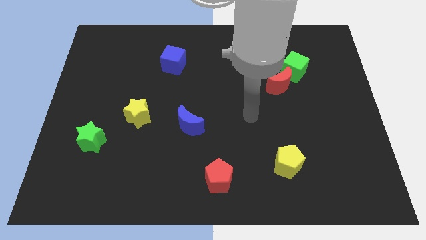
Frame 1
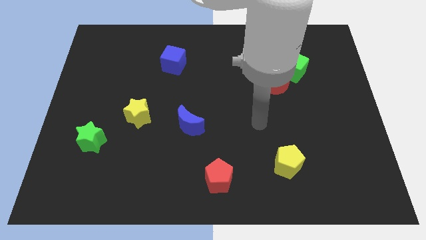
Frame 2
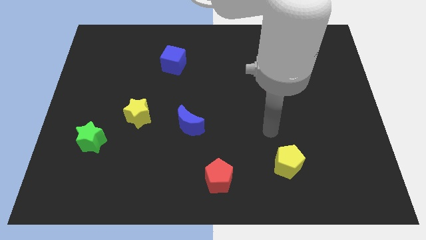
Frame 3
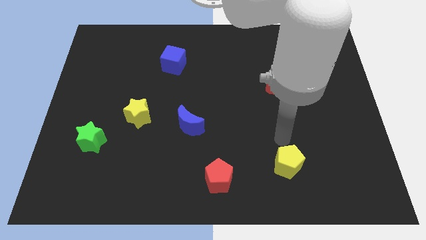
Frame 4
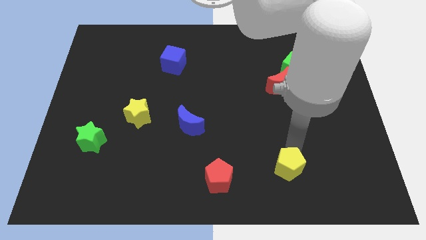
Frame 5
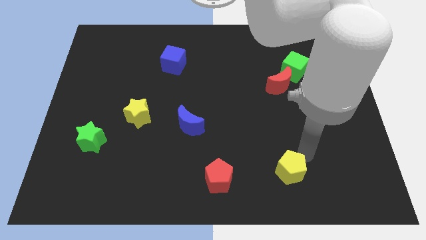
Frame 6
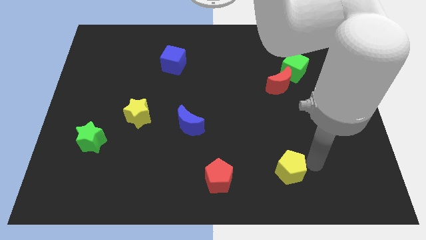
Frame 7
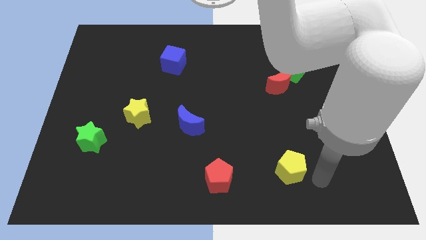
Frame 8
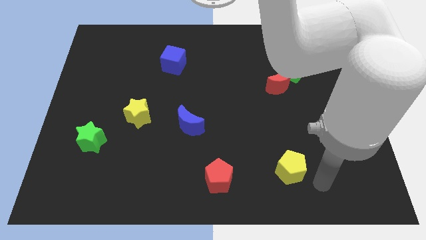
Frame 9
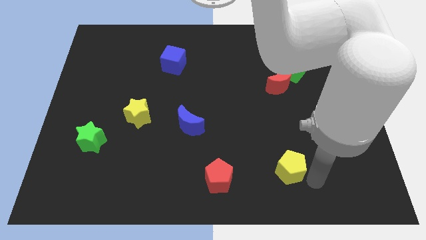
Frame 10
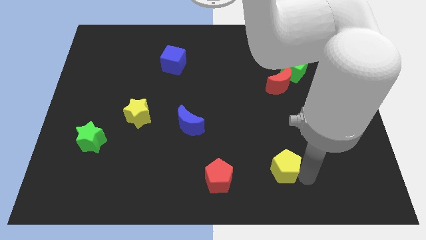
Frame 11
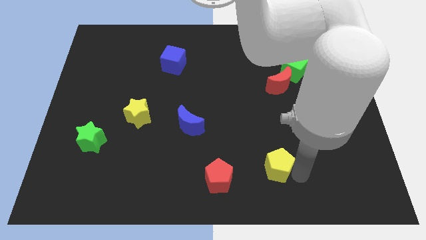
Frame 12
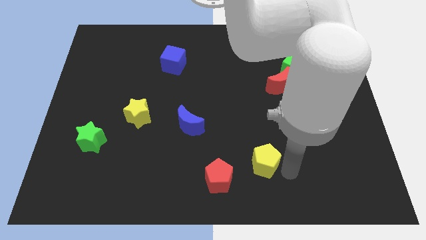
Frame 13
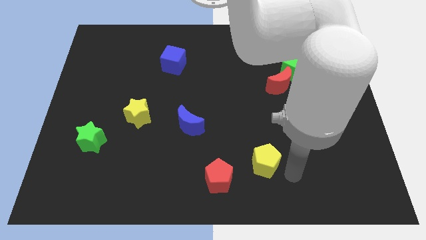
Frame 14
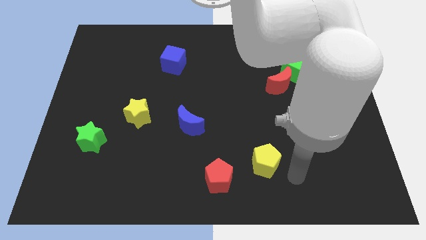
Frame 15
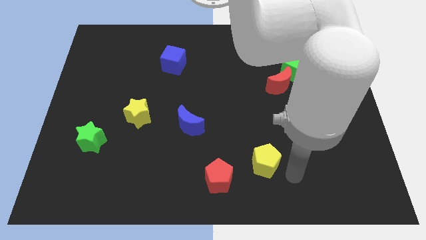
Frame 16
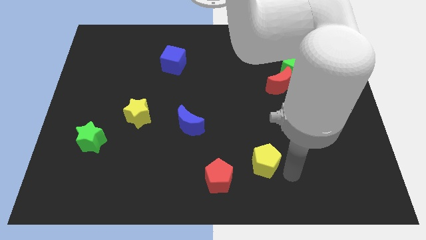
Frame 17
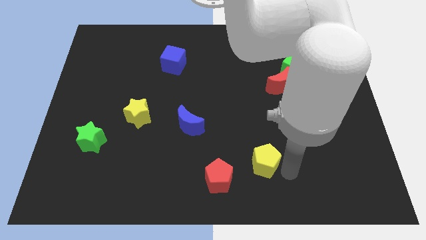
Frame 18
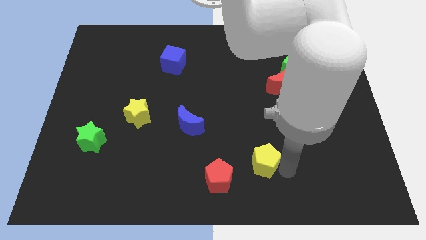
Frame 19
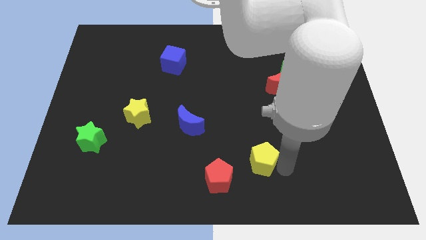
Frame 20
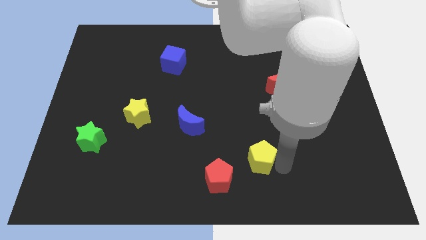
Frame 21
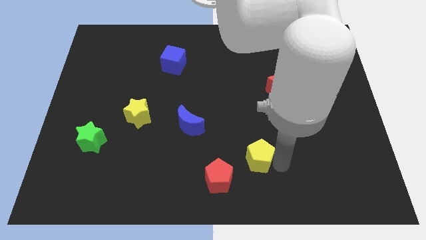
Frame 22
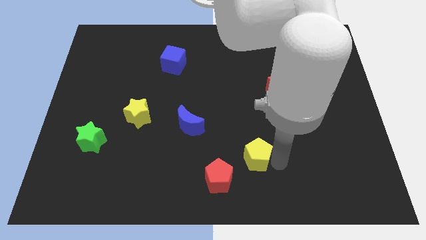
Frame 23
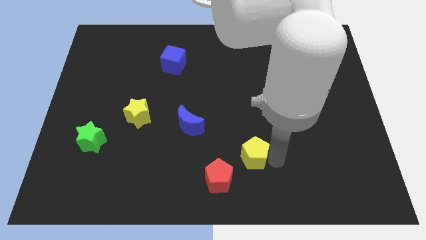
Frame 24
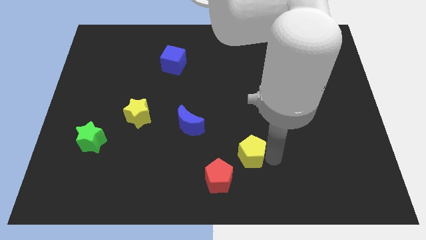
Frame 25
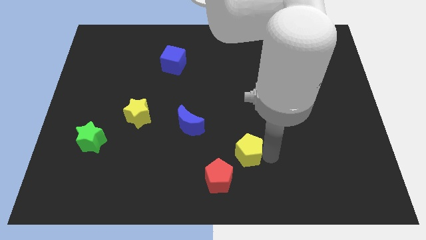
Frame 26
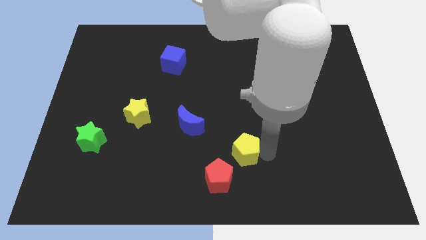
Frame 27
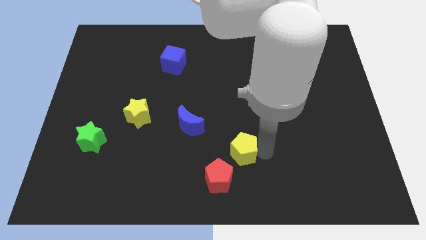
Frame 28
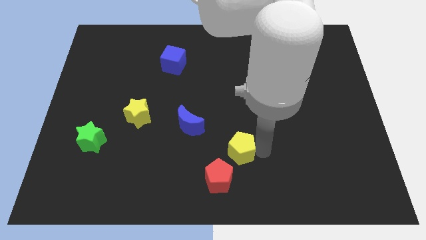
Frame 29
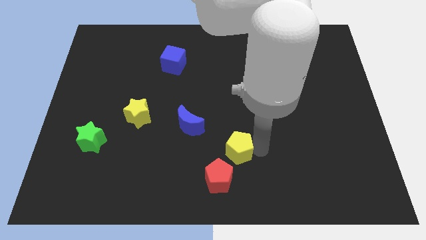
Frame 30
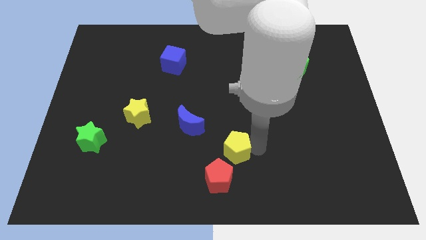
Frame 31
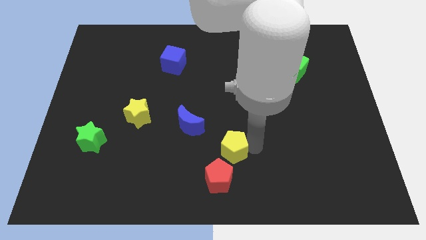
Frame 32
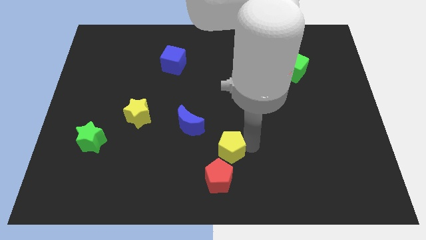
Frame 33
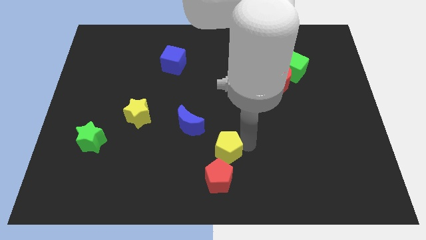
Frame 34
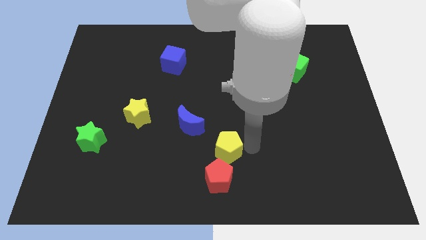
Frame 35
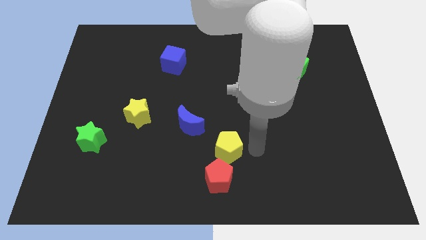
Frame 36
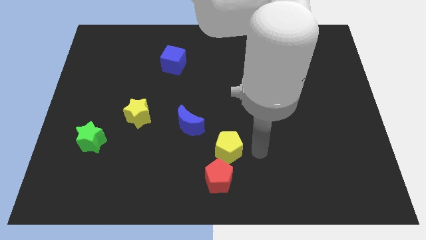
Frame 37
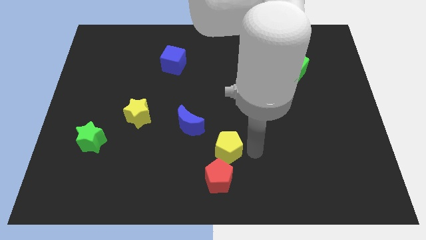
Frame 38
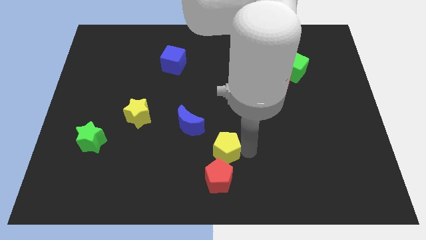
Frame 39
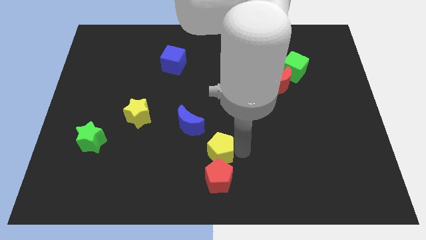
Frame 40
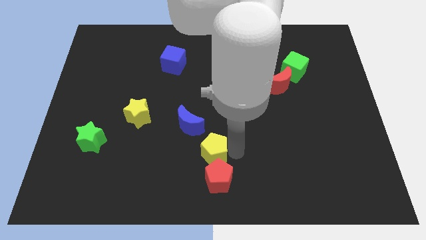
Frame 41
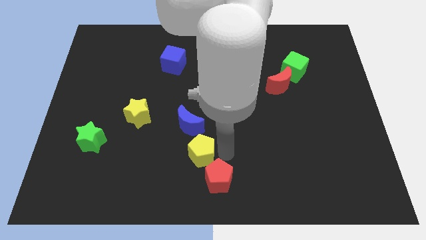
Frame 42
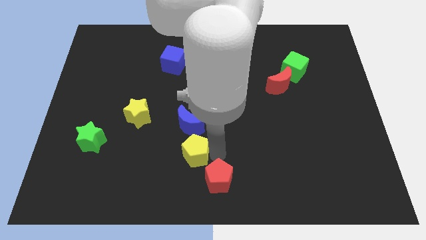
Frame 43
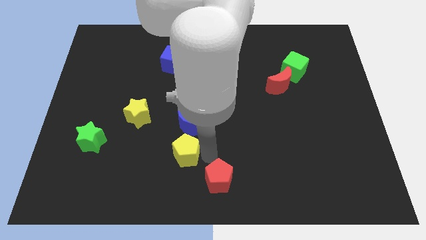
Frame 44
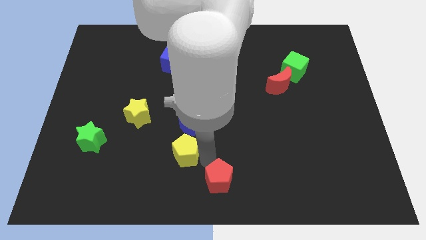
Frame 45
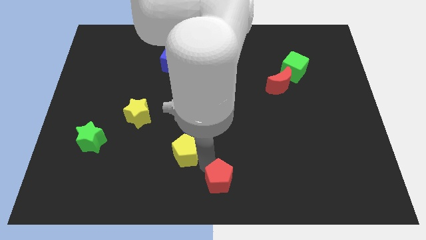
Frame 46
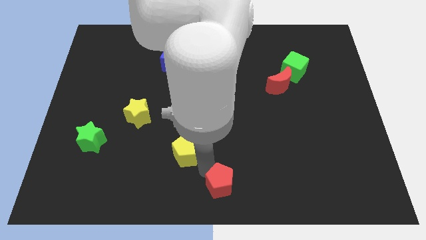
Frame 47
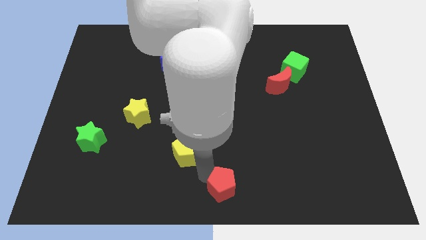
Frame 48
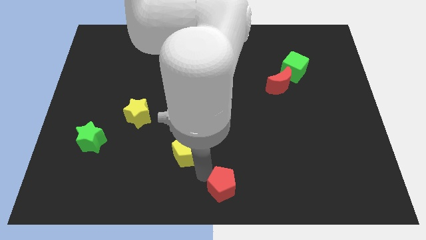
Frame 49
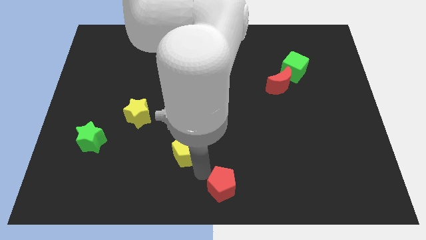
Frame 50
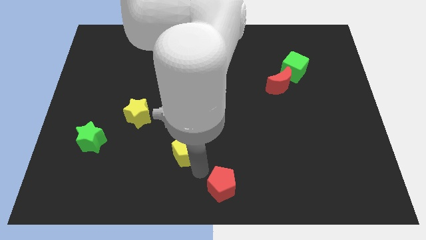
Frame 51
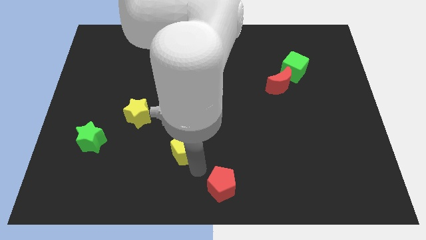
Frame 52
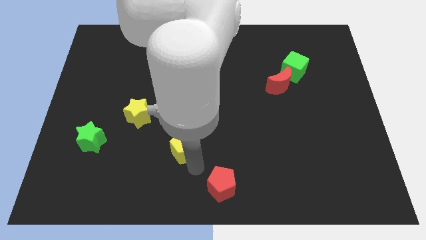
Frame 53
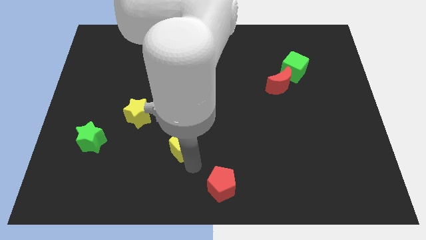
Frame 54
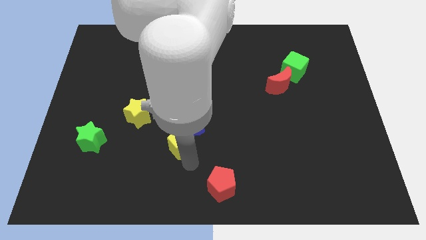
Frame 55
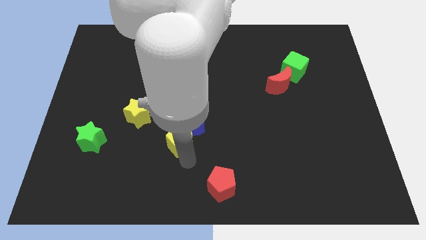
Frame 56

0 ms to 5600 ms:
put the yellow pentagon to the bottom right of the yellow star

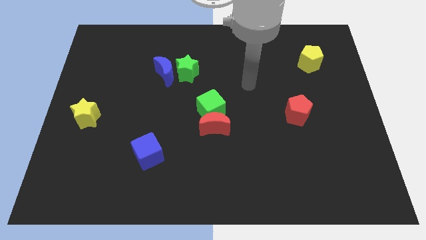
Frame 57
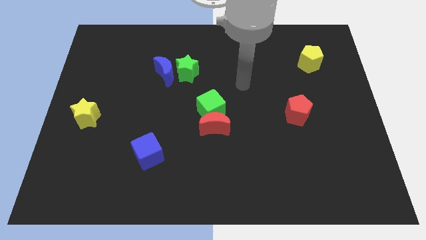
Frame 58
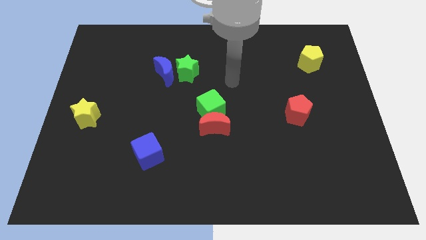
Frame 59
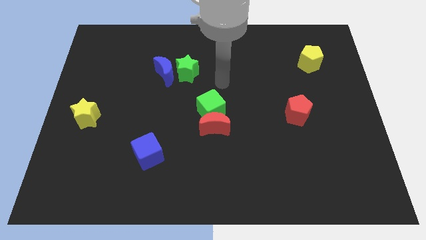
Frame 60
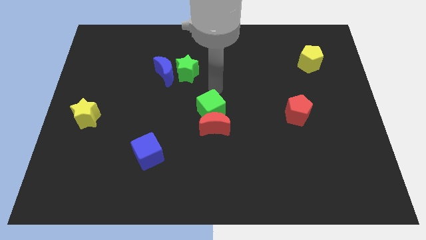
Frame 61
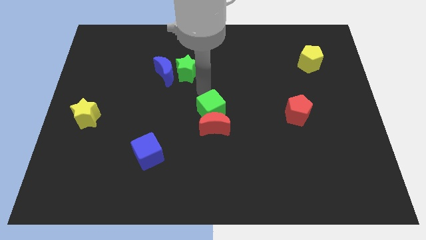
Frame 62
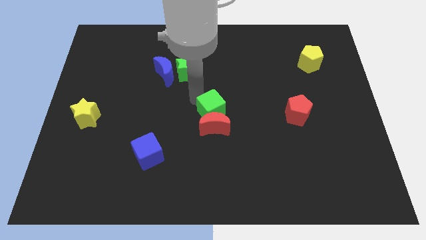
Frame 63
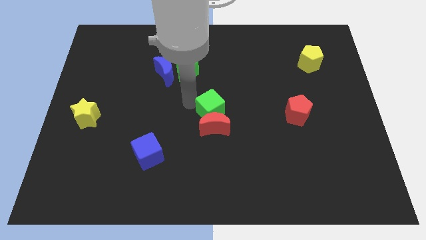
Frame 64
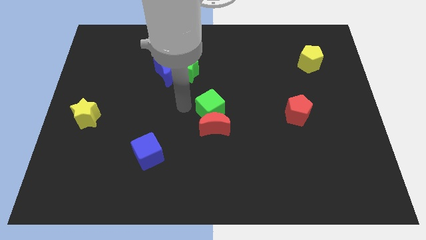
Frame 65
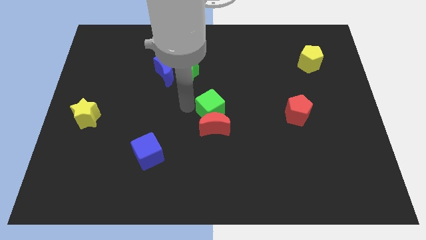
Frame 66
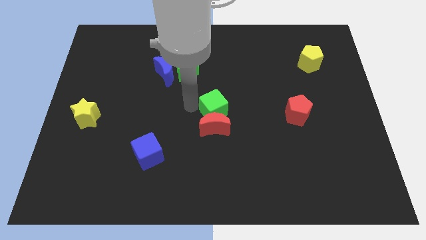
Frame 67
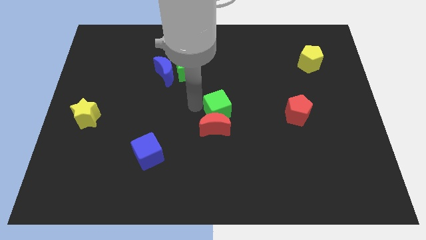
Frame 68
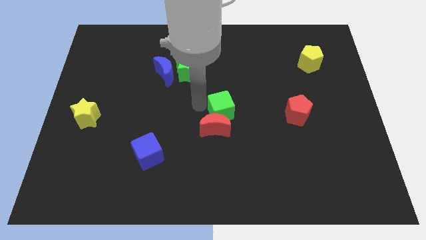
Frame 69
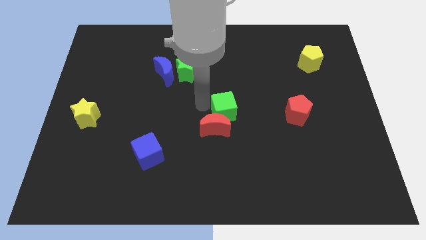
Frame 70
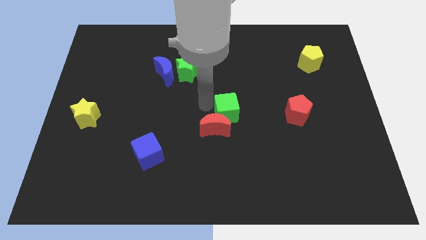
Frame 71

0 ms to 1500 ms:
push the green cube to the left of the red pentagon

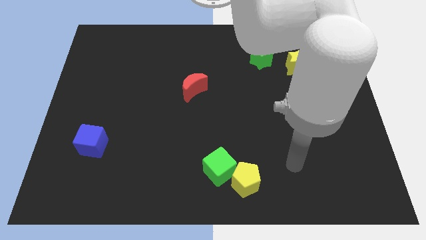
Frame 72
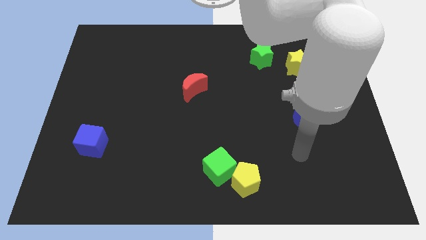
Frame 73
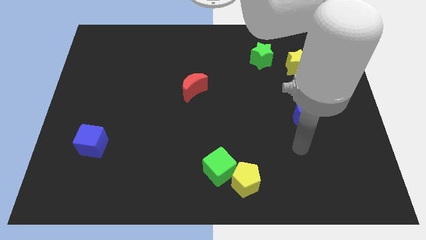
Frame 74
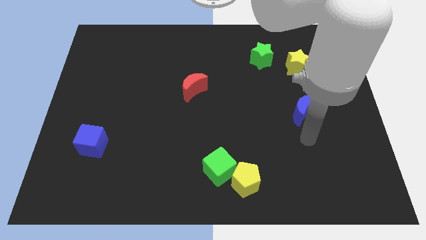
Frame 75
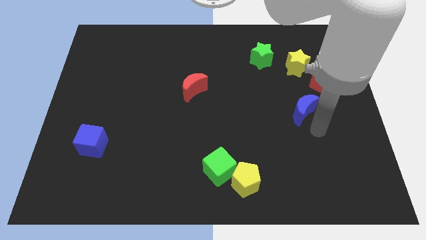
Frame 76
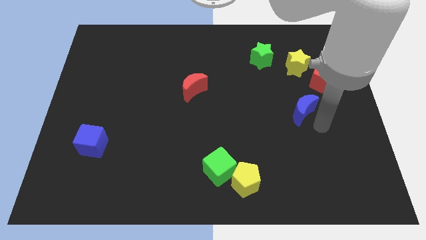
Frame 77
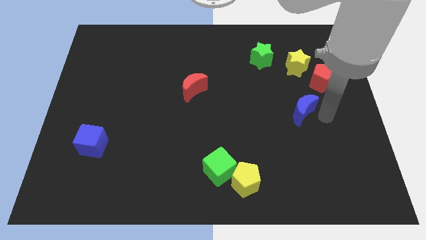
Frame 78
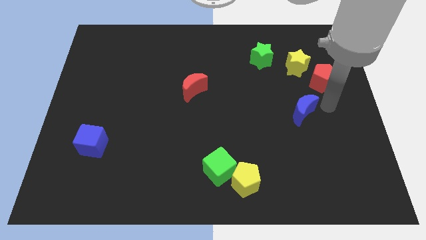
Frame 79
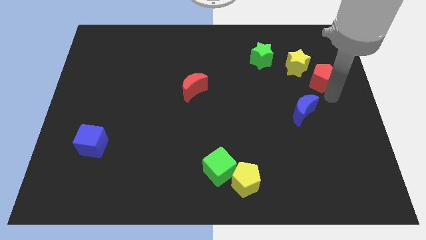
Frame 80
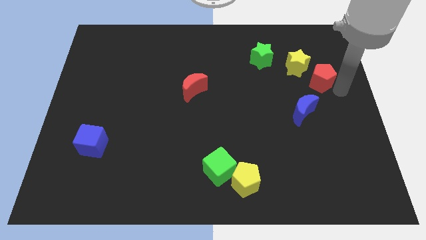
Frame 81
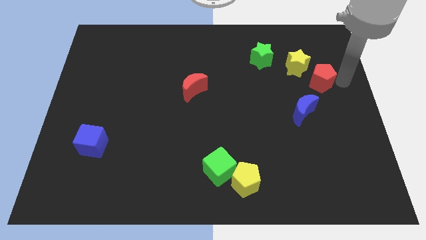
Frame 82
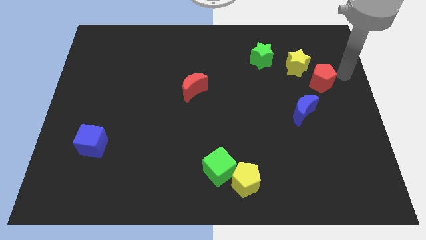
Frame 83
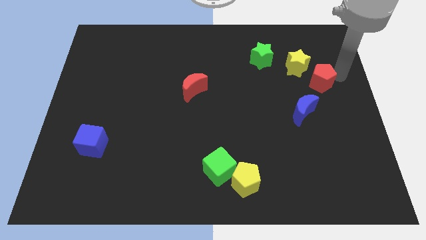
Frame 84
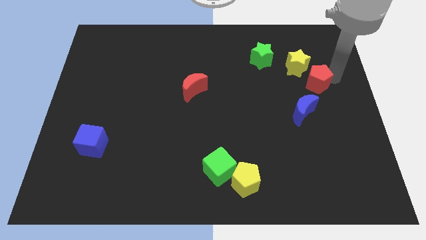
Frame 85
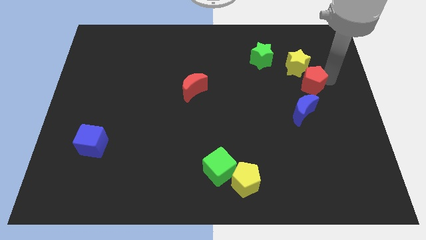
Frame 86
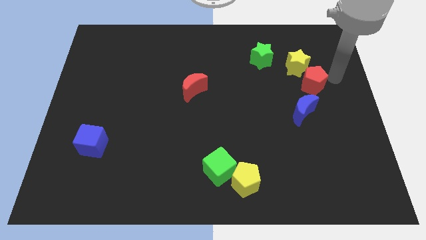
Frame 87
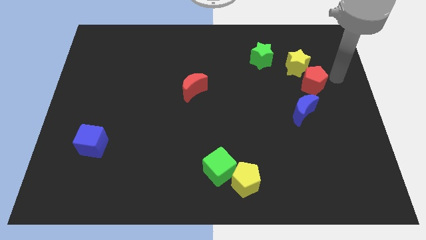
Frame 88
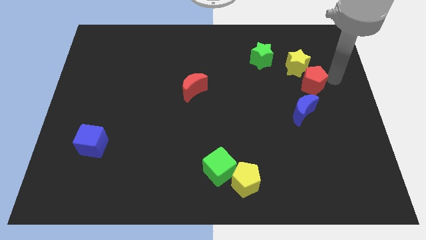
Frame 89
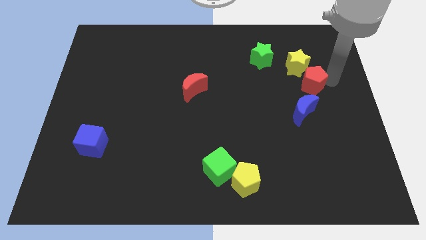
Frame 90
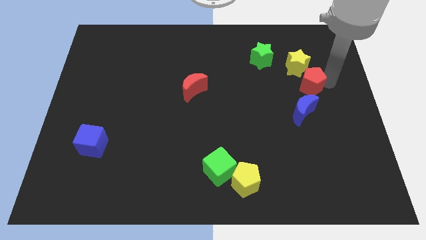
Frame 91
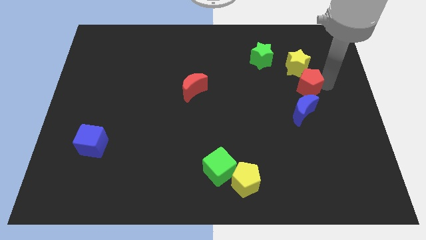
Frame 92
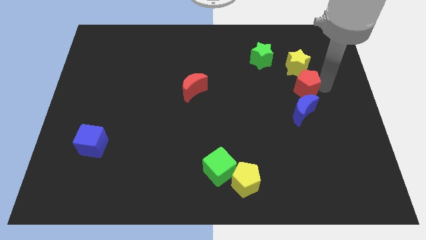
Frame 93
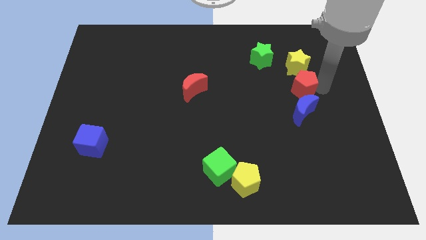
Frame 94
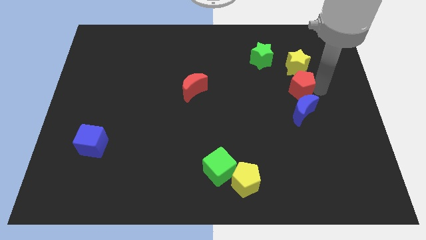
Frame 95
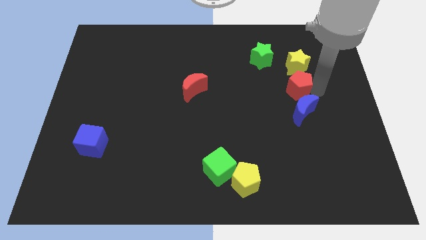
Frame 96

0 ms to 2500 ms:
push the red pentagon to the top left of the blue moon
